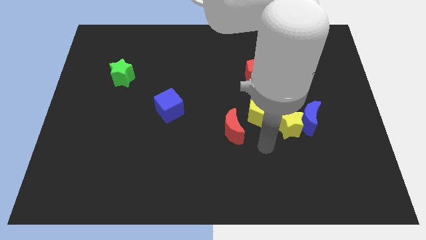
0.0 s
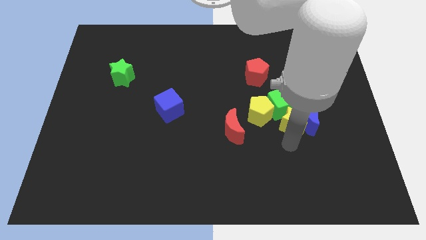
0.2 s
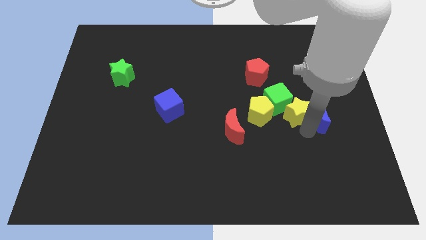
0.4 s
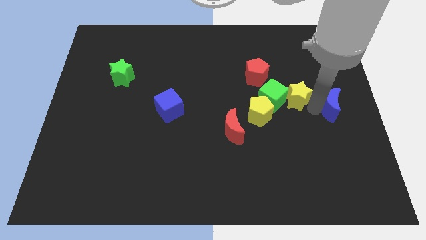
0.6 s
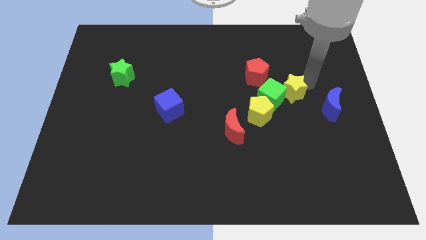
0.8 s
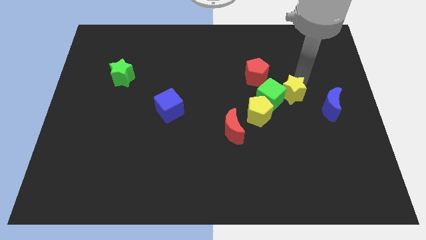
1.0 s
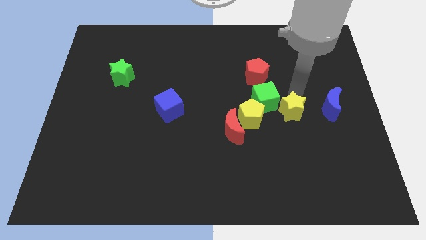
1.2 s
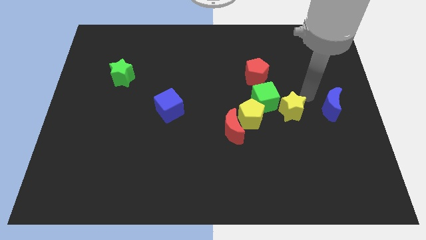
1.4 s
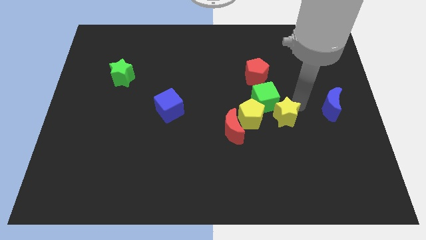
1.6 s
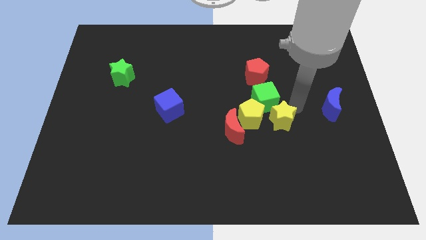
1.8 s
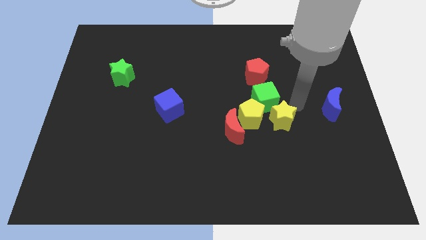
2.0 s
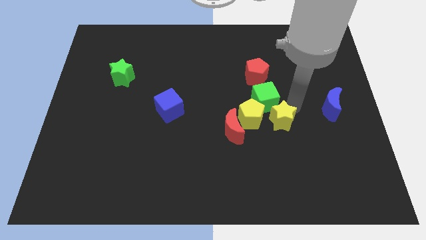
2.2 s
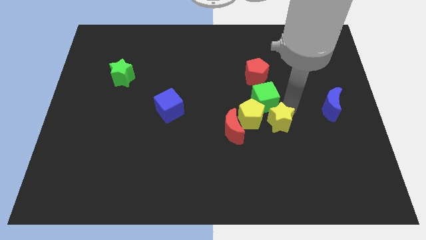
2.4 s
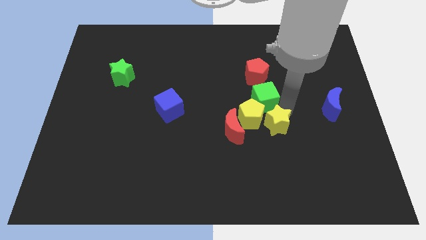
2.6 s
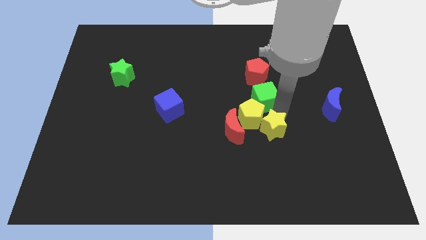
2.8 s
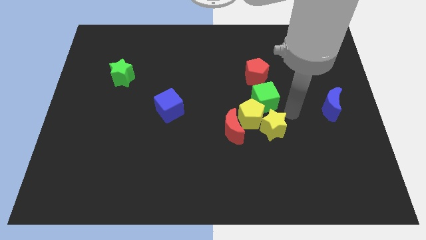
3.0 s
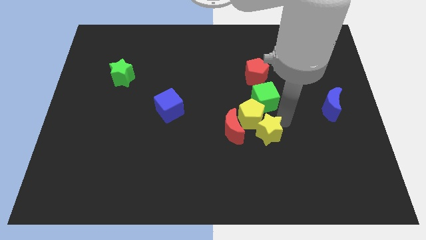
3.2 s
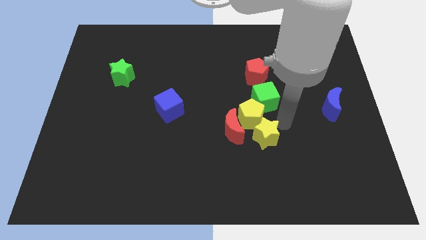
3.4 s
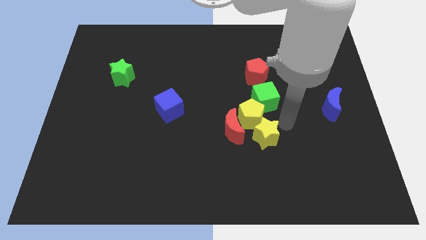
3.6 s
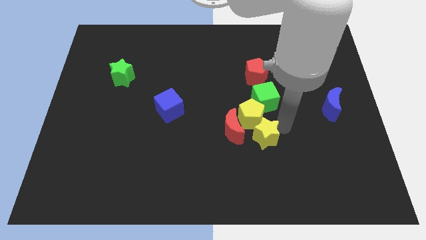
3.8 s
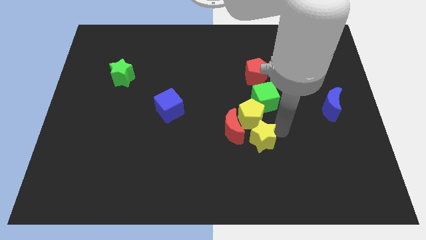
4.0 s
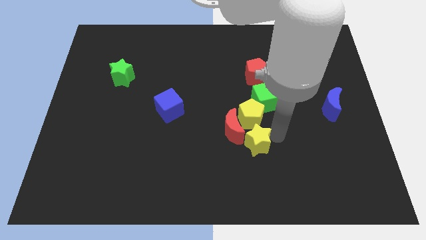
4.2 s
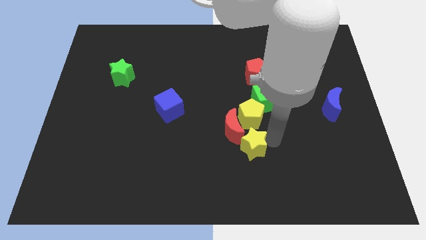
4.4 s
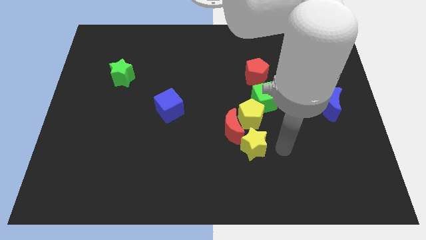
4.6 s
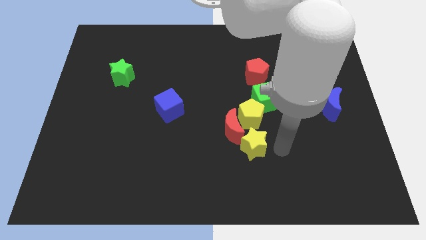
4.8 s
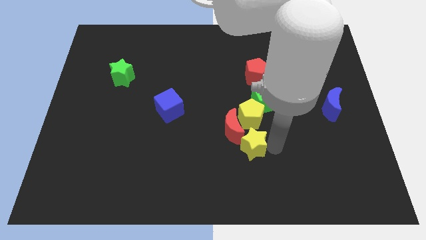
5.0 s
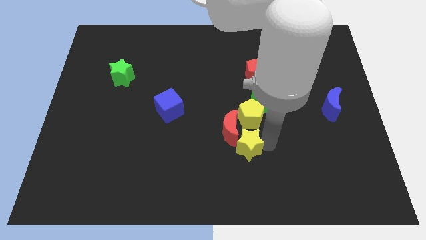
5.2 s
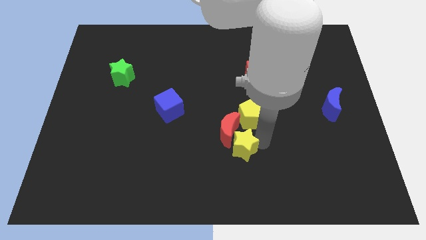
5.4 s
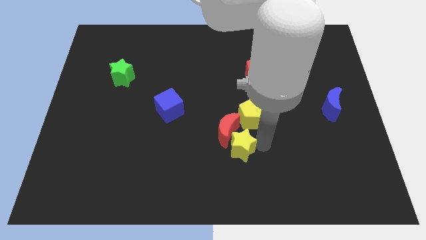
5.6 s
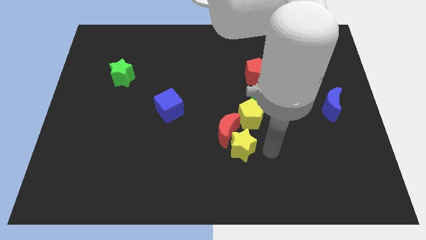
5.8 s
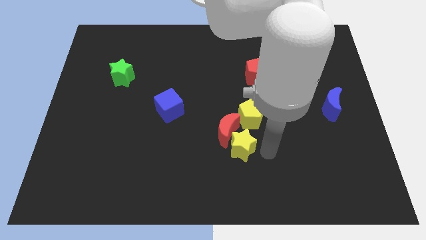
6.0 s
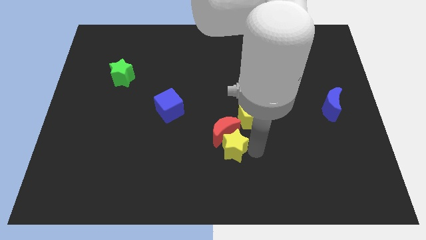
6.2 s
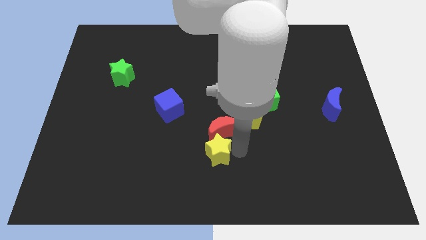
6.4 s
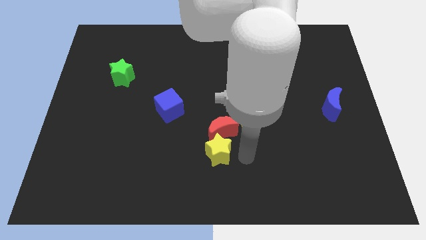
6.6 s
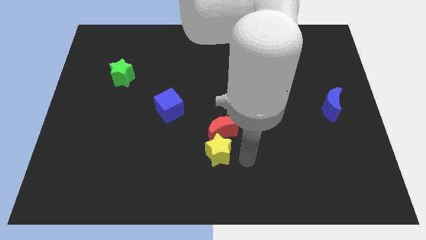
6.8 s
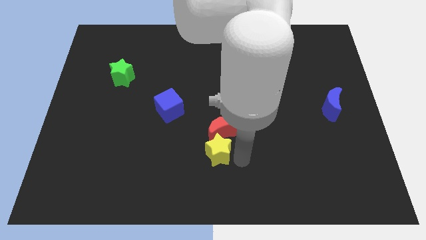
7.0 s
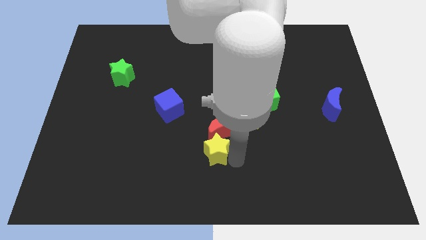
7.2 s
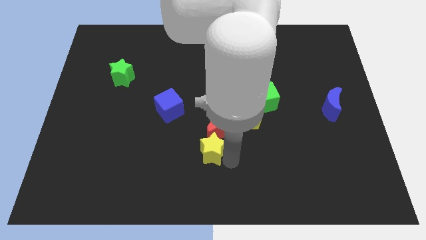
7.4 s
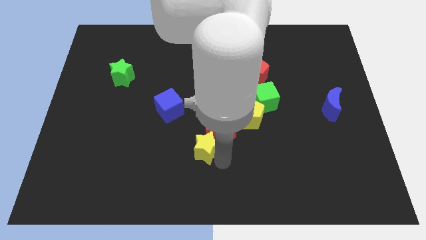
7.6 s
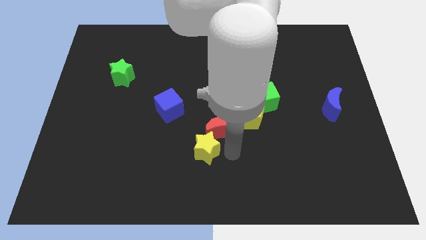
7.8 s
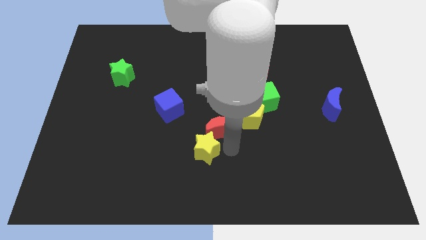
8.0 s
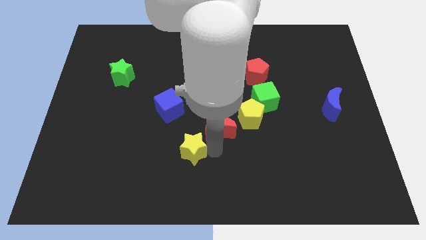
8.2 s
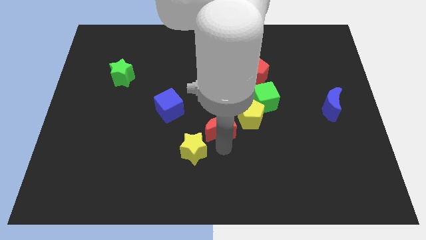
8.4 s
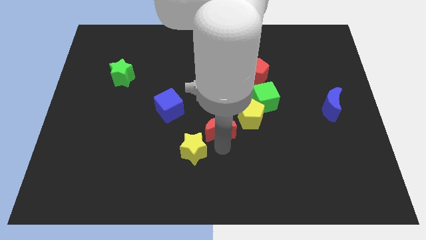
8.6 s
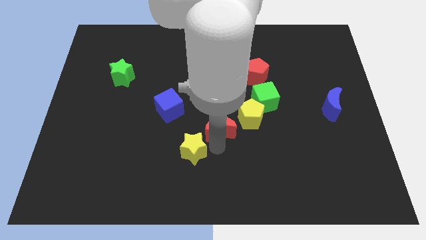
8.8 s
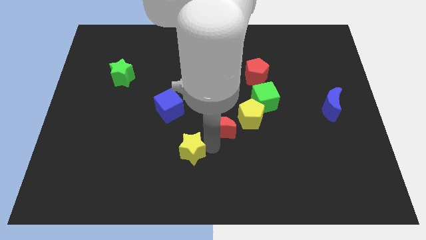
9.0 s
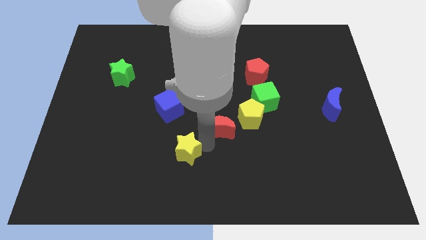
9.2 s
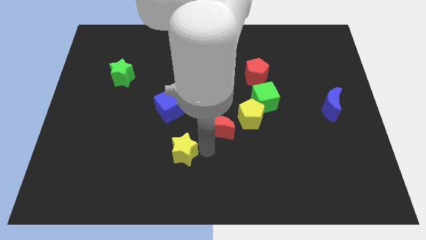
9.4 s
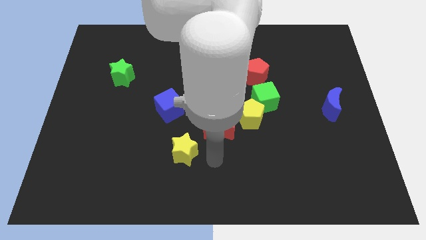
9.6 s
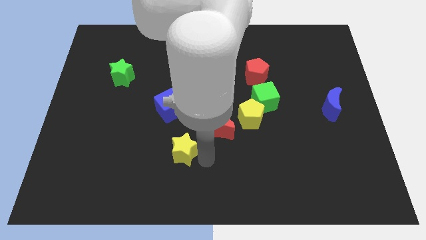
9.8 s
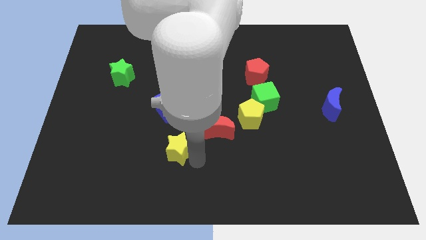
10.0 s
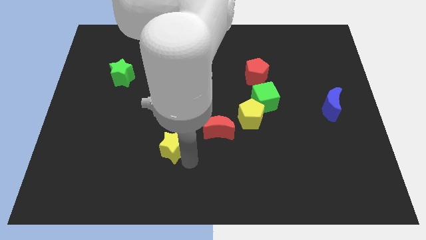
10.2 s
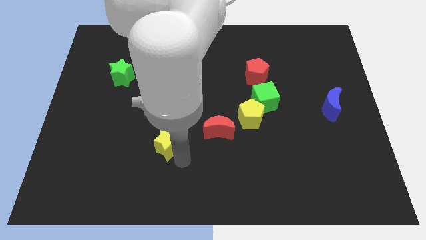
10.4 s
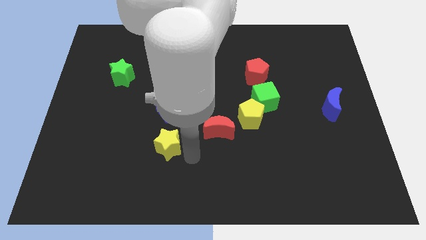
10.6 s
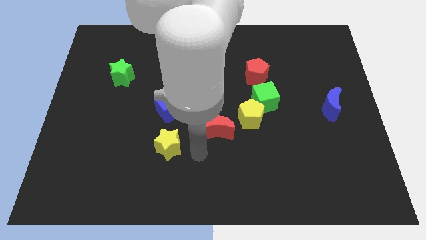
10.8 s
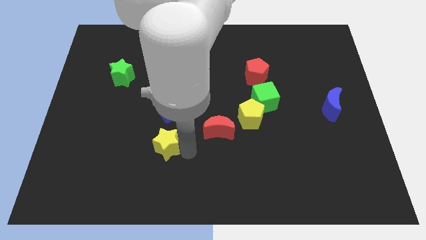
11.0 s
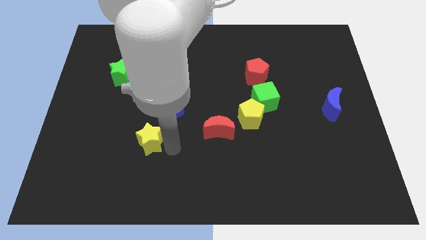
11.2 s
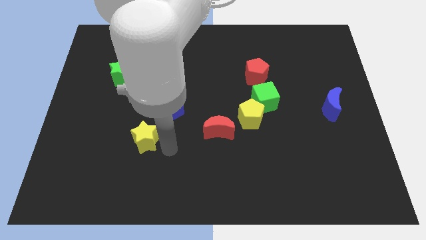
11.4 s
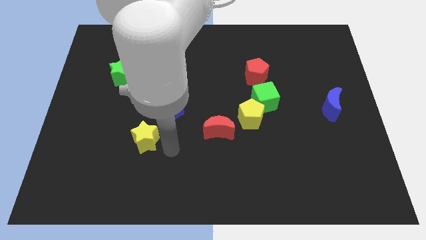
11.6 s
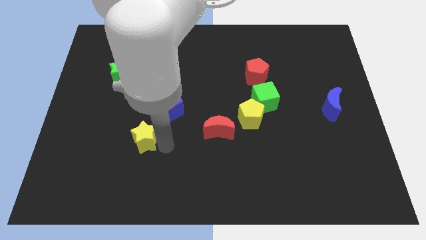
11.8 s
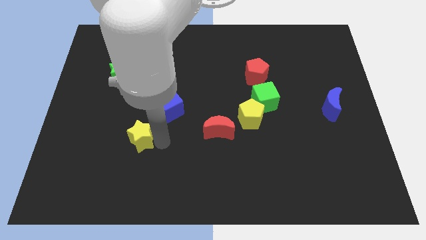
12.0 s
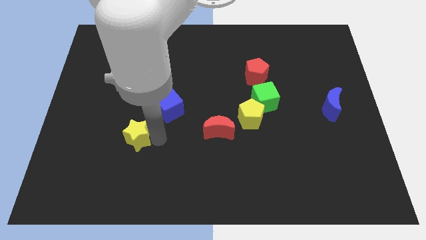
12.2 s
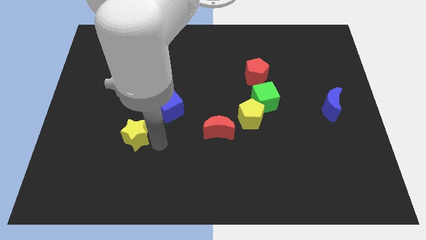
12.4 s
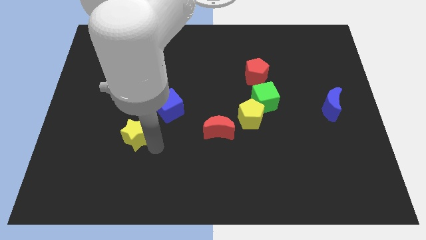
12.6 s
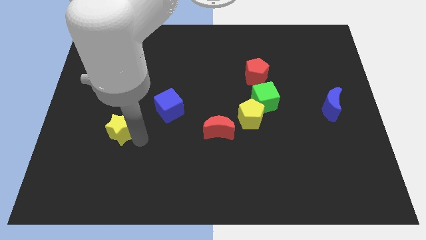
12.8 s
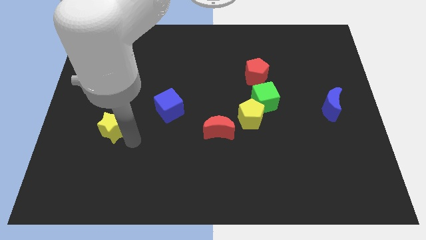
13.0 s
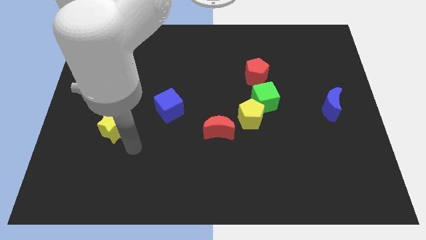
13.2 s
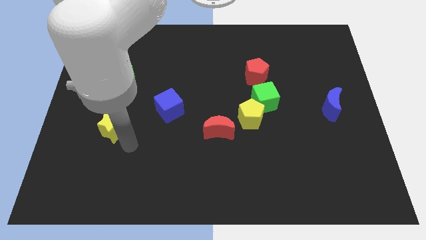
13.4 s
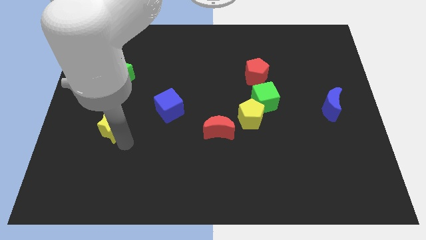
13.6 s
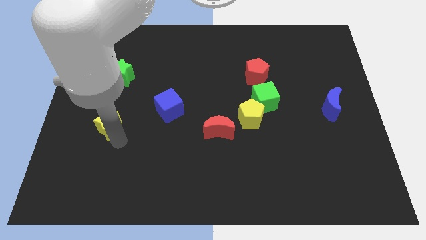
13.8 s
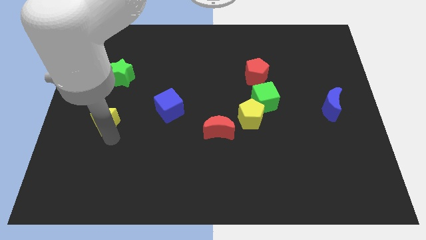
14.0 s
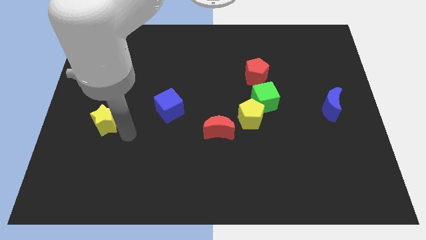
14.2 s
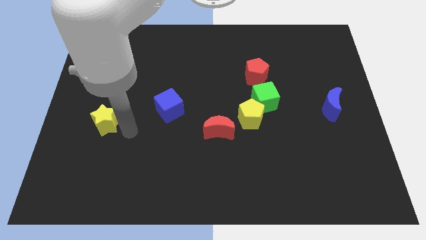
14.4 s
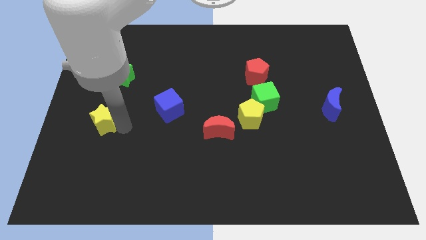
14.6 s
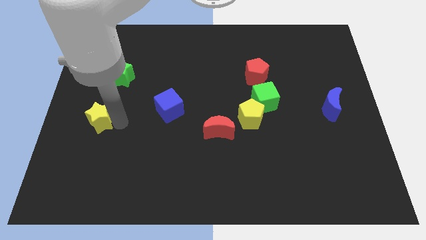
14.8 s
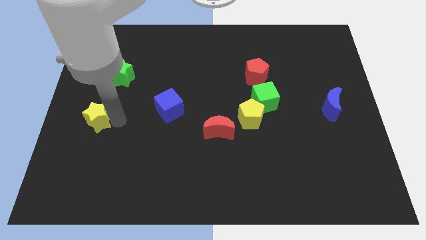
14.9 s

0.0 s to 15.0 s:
push the yellow star to the left side
